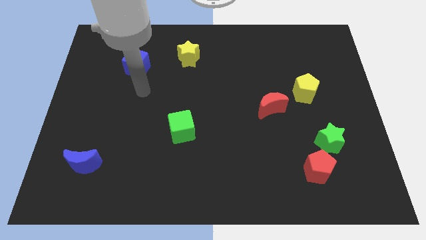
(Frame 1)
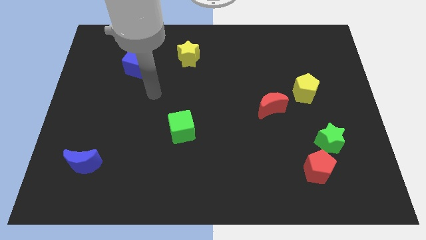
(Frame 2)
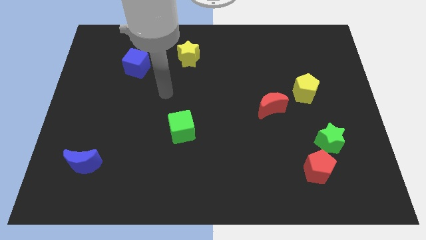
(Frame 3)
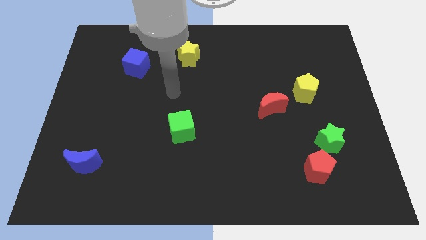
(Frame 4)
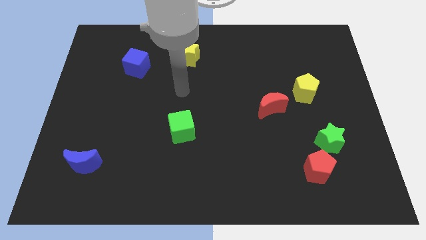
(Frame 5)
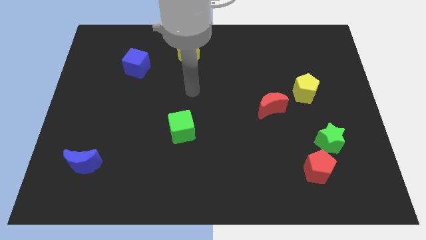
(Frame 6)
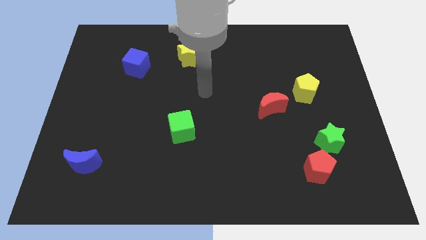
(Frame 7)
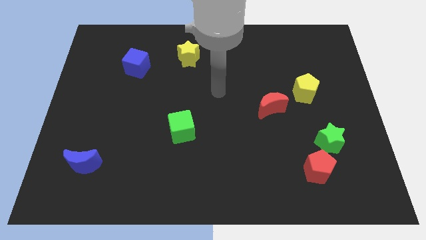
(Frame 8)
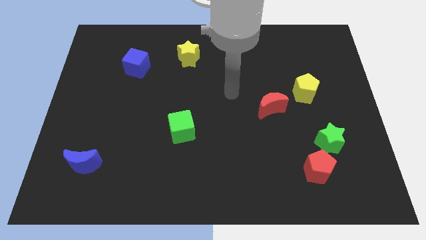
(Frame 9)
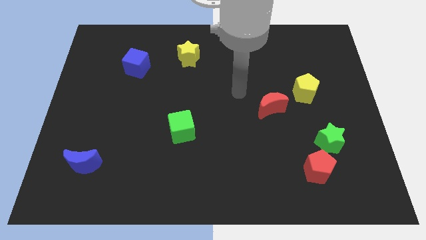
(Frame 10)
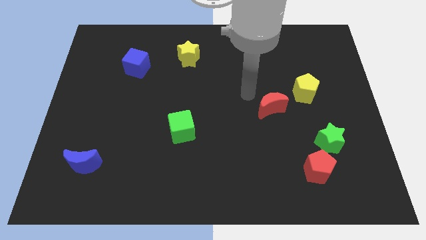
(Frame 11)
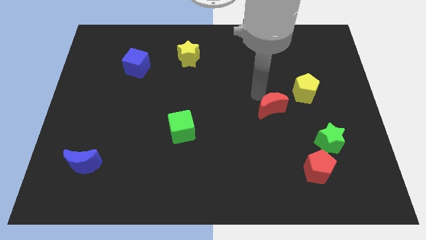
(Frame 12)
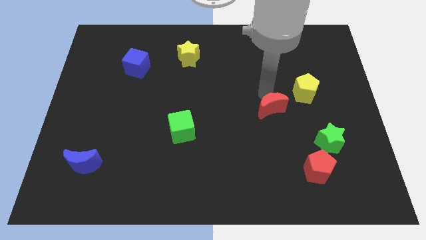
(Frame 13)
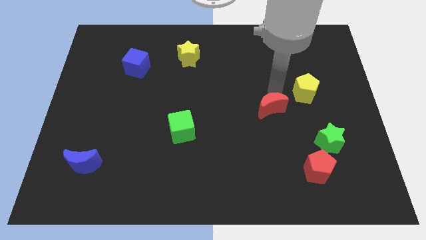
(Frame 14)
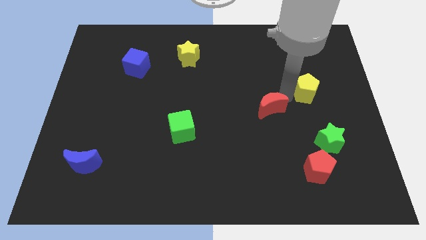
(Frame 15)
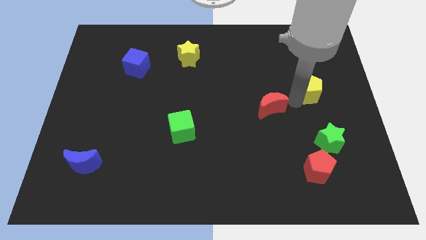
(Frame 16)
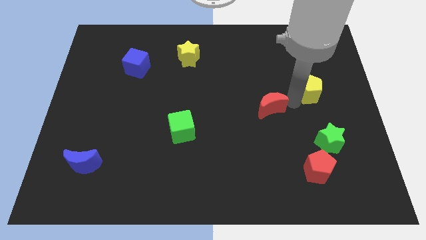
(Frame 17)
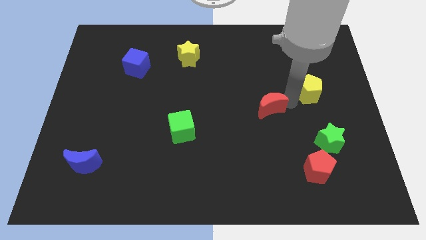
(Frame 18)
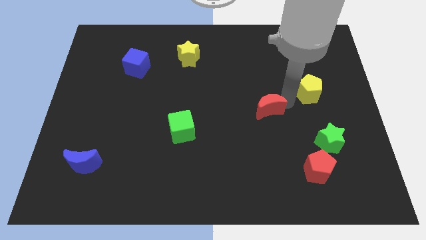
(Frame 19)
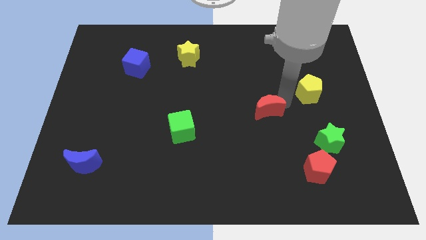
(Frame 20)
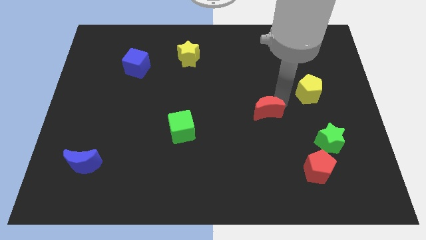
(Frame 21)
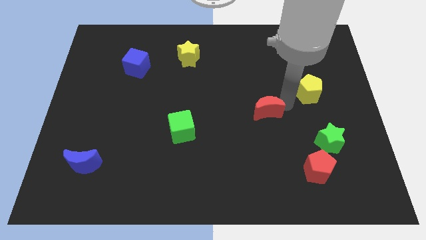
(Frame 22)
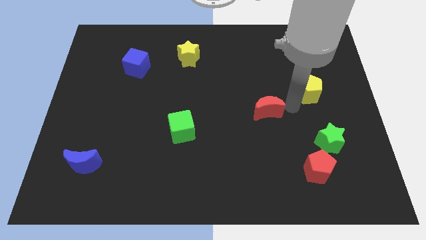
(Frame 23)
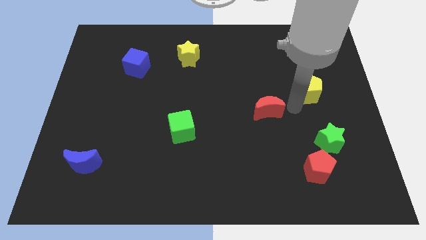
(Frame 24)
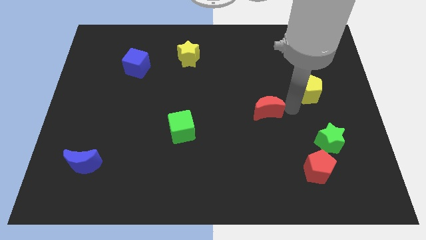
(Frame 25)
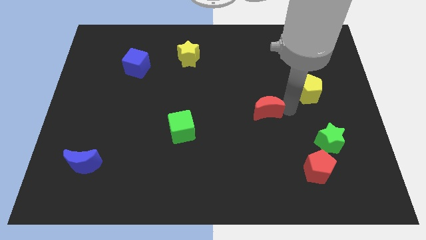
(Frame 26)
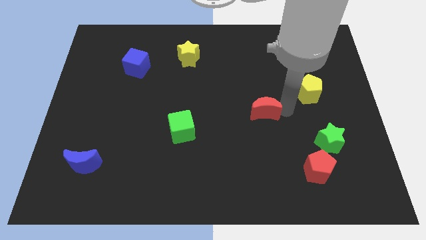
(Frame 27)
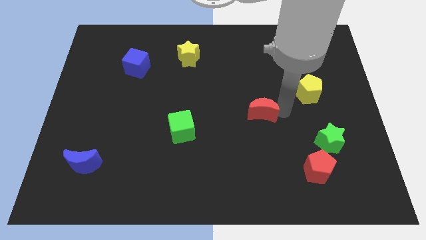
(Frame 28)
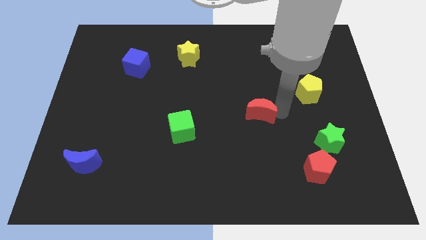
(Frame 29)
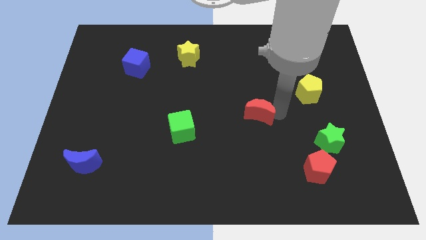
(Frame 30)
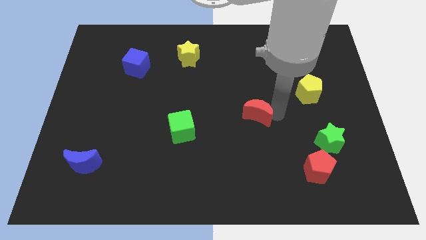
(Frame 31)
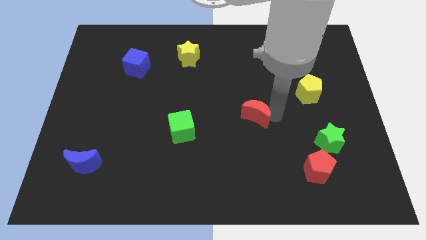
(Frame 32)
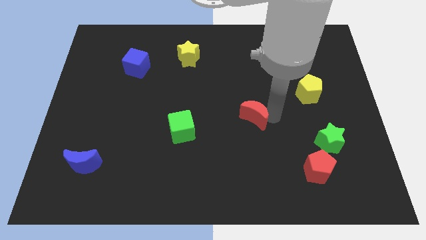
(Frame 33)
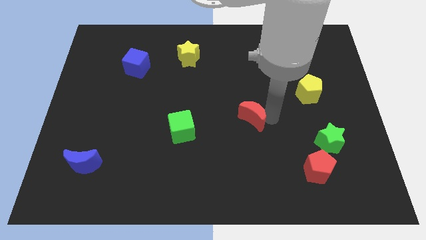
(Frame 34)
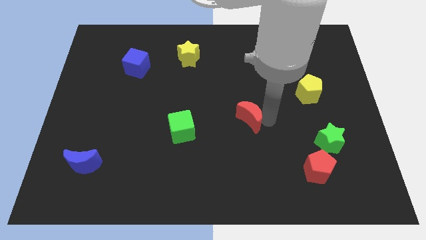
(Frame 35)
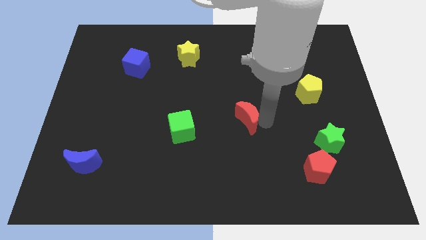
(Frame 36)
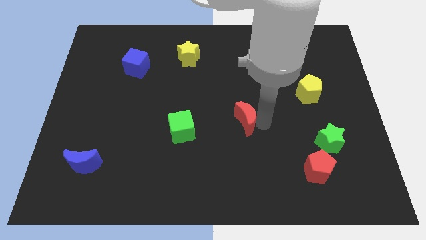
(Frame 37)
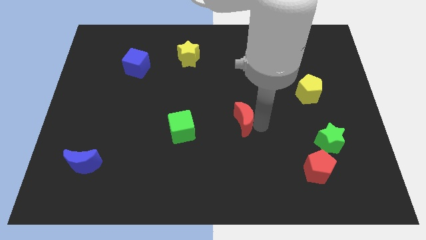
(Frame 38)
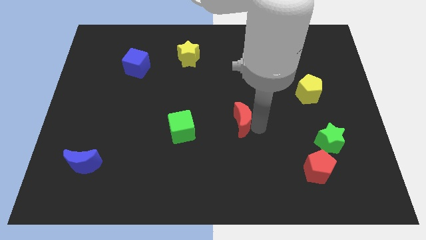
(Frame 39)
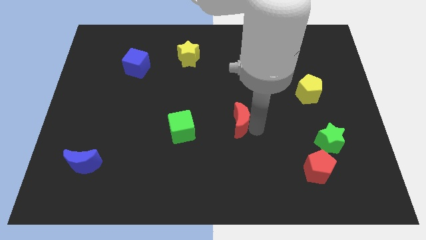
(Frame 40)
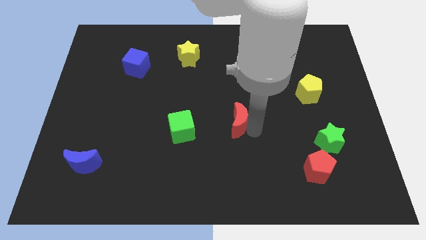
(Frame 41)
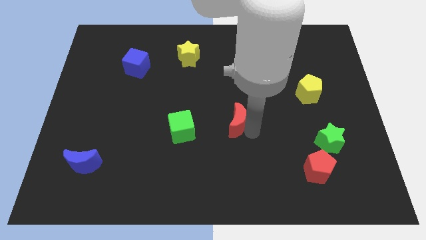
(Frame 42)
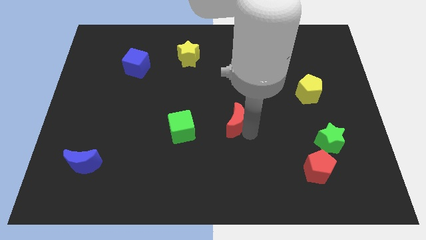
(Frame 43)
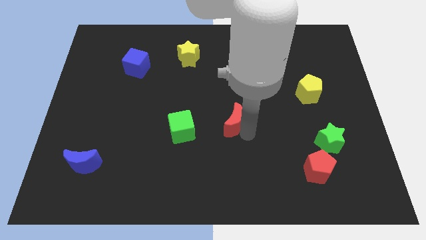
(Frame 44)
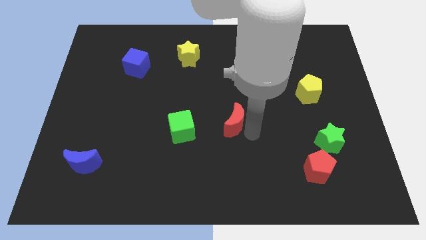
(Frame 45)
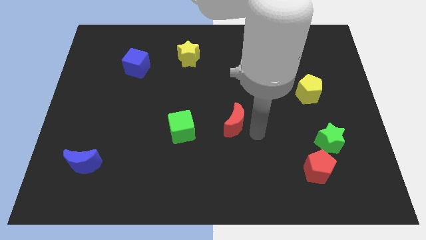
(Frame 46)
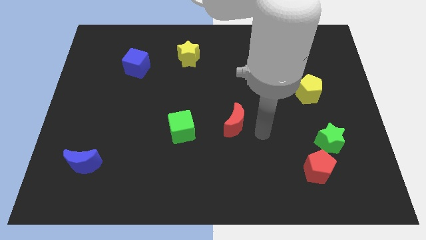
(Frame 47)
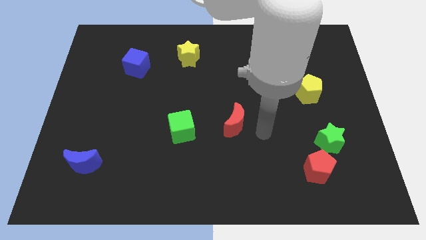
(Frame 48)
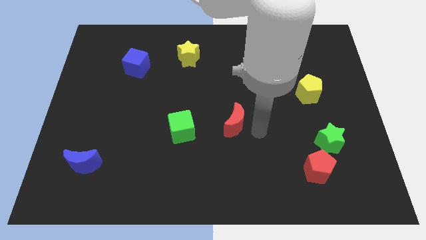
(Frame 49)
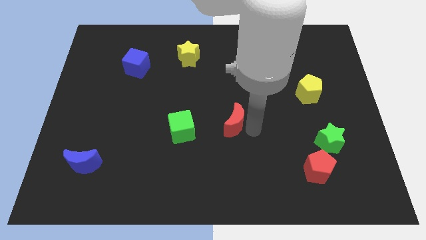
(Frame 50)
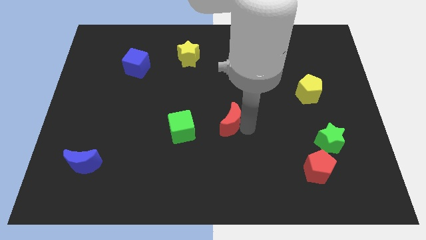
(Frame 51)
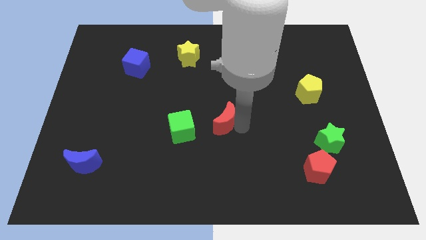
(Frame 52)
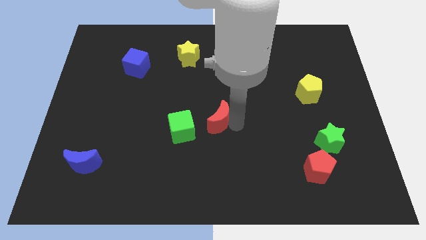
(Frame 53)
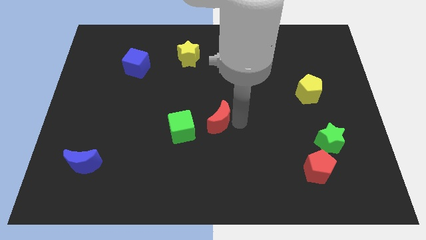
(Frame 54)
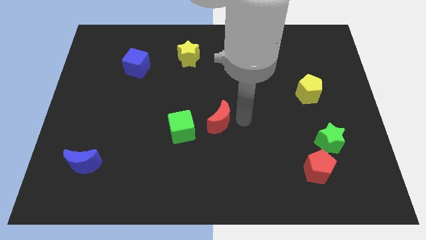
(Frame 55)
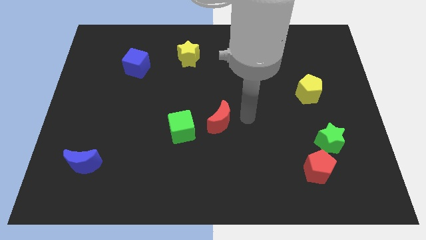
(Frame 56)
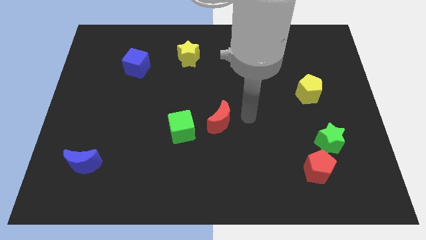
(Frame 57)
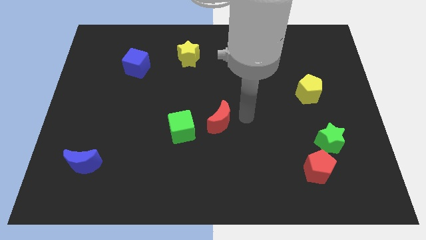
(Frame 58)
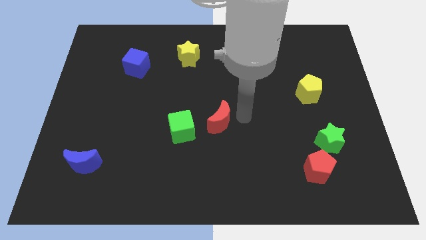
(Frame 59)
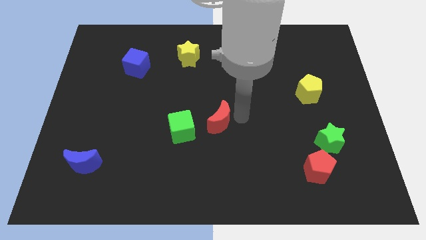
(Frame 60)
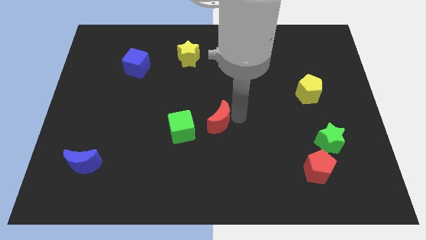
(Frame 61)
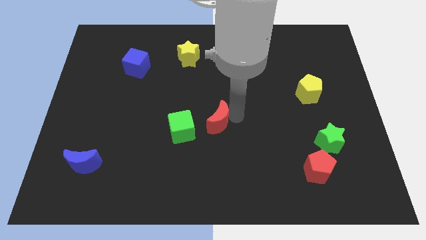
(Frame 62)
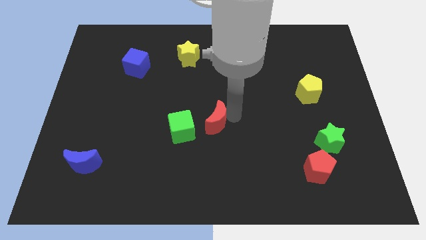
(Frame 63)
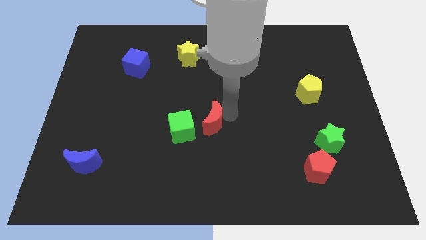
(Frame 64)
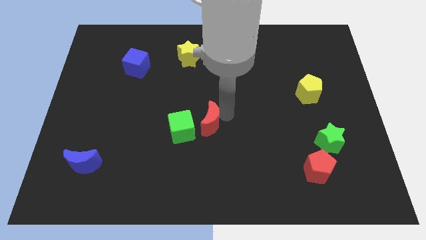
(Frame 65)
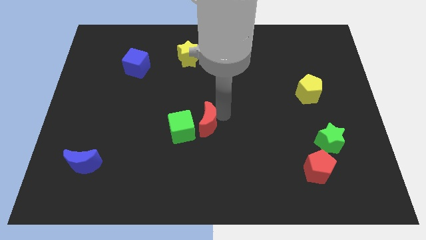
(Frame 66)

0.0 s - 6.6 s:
put the red moon next to the green cube

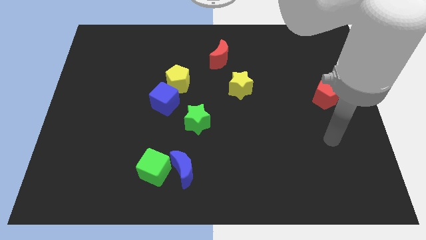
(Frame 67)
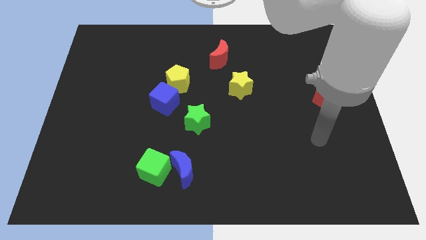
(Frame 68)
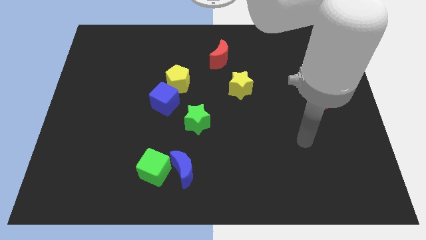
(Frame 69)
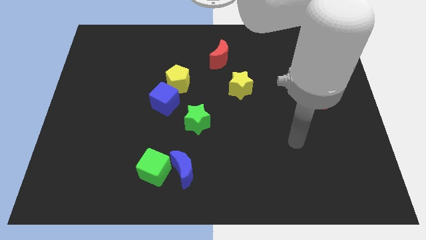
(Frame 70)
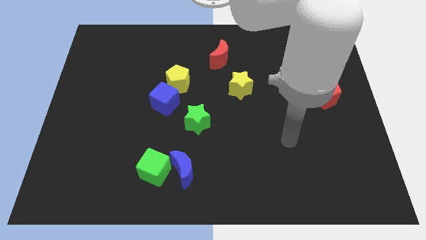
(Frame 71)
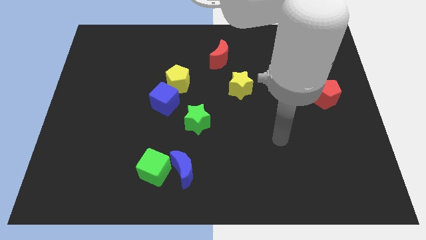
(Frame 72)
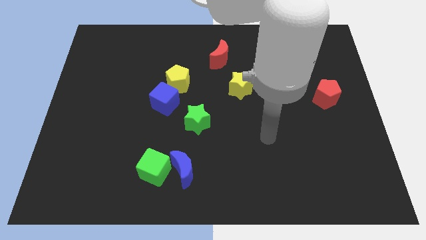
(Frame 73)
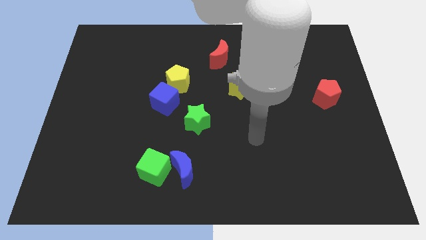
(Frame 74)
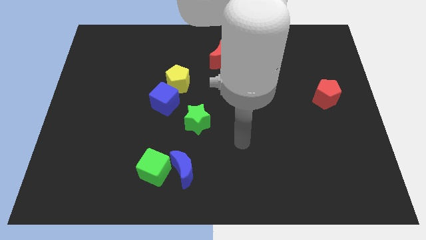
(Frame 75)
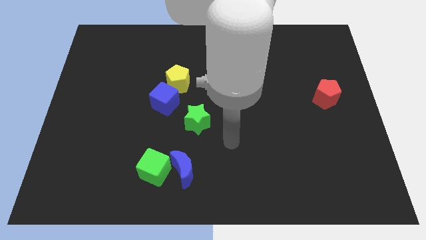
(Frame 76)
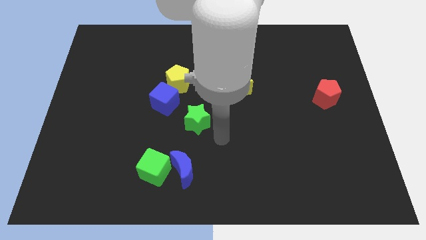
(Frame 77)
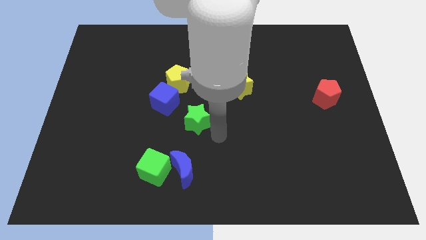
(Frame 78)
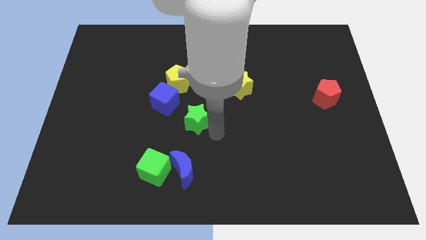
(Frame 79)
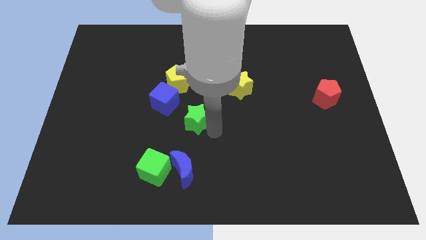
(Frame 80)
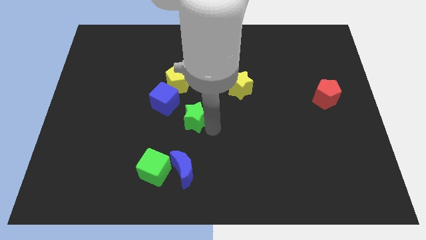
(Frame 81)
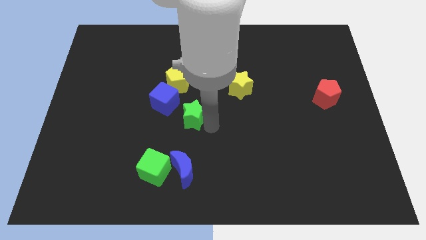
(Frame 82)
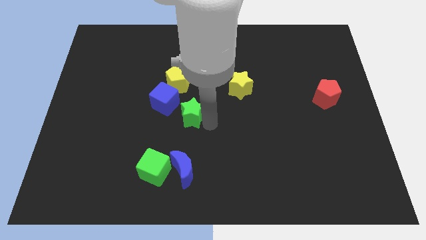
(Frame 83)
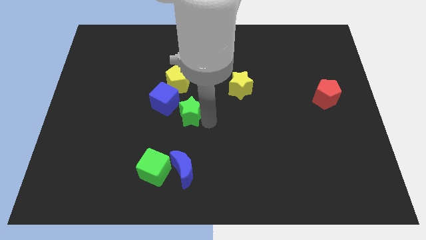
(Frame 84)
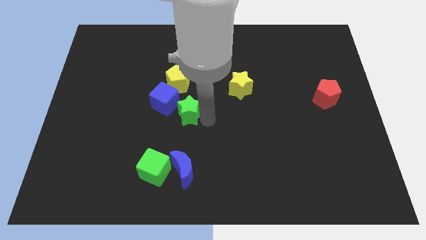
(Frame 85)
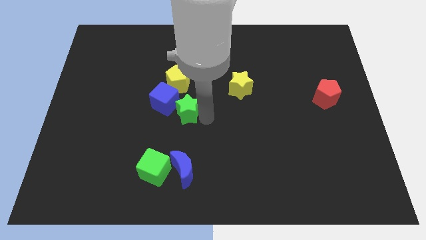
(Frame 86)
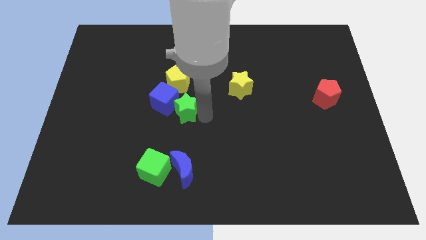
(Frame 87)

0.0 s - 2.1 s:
move the green star next to the blue cube
